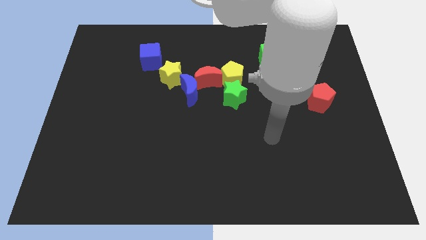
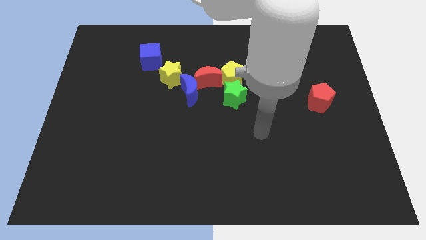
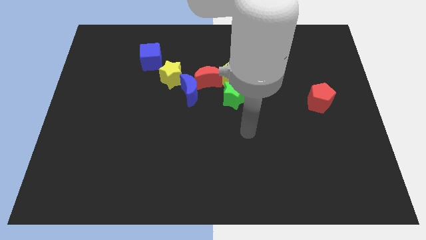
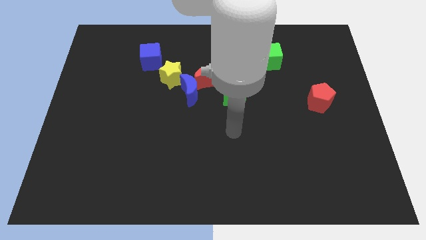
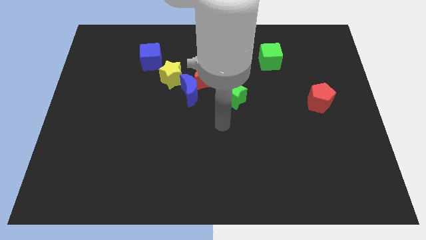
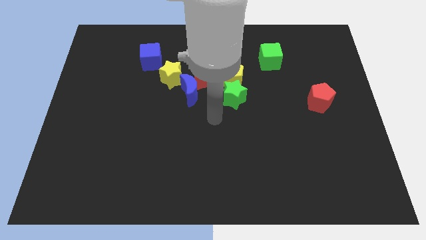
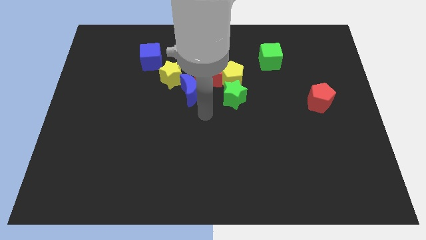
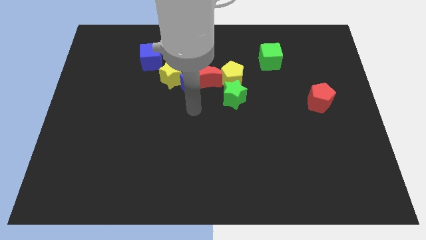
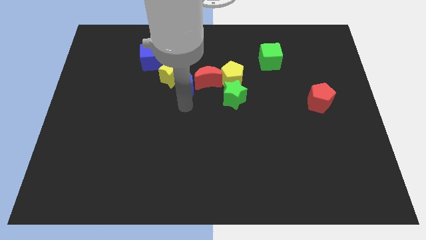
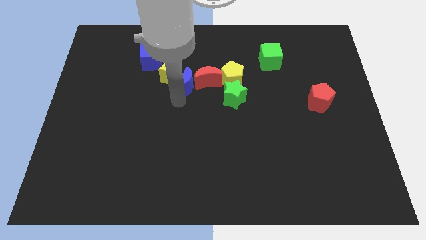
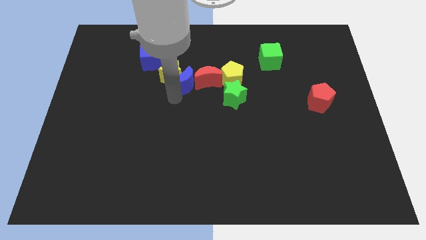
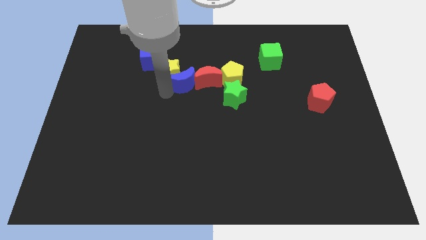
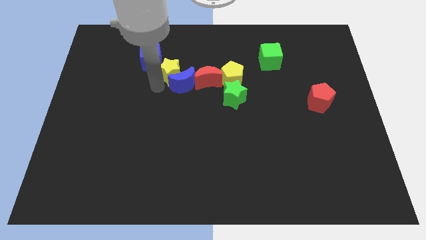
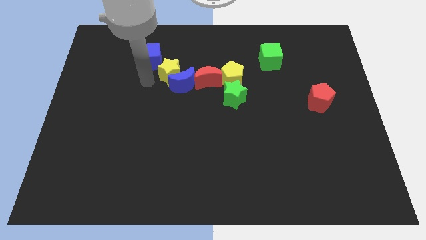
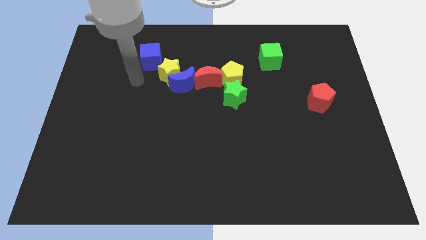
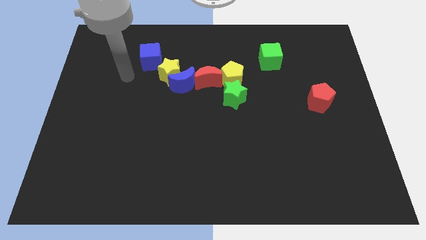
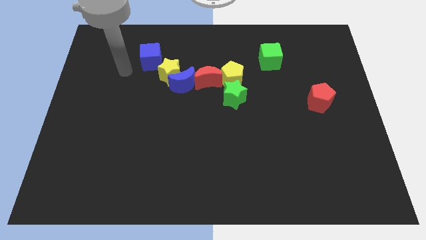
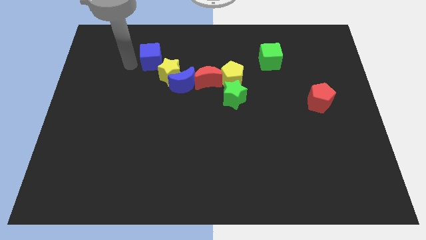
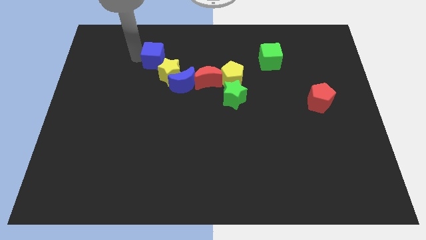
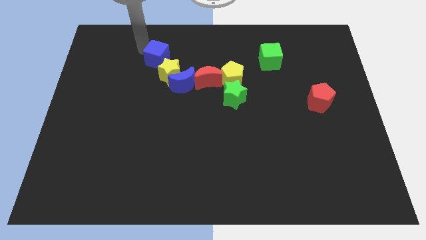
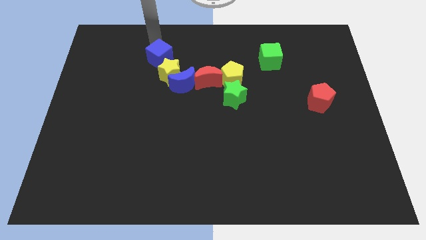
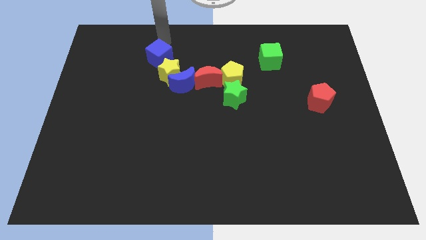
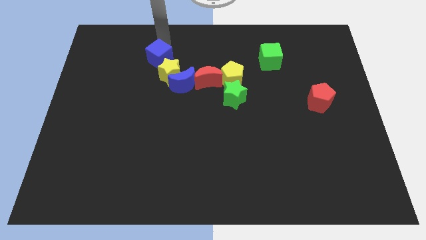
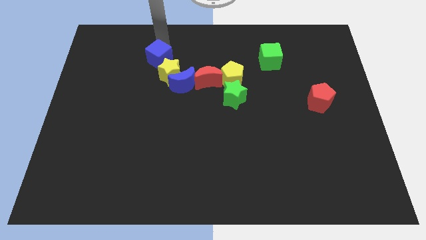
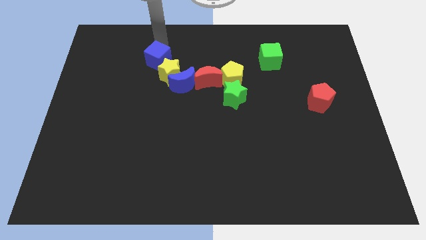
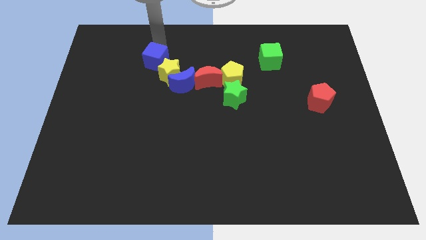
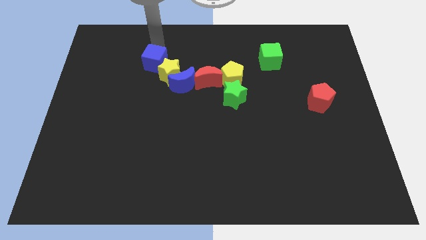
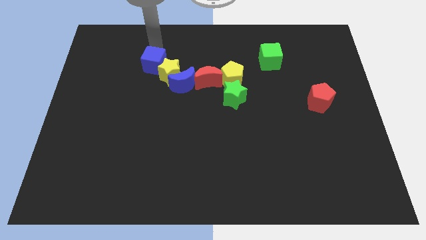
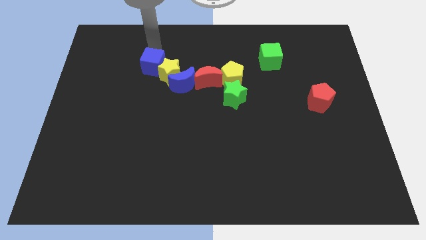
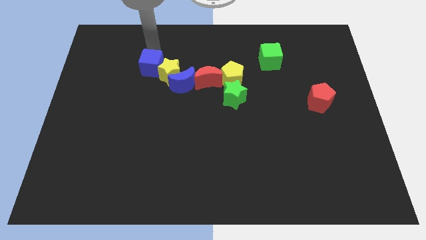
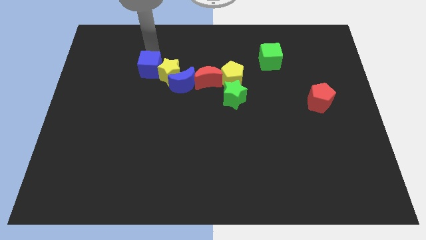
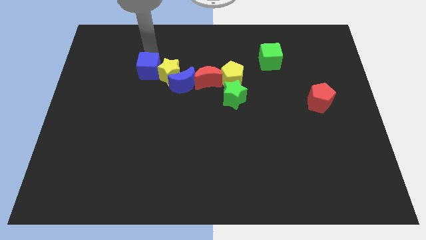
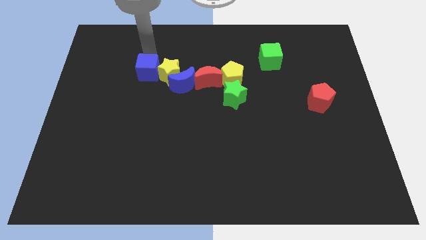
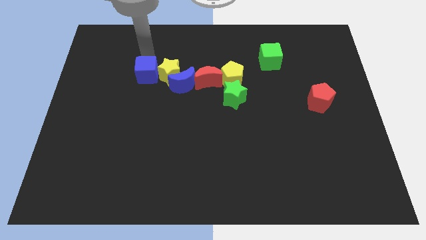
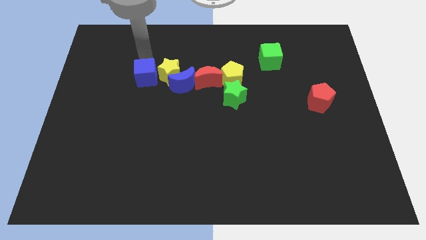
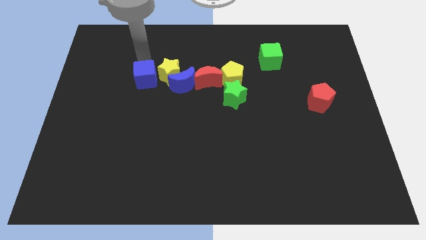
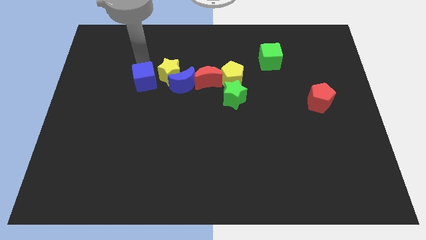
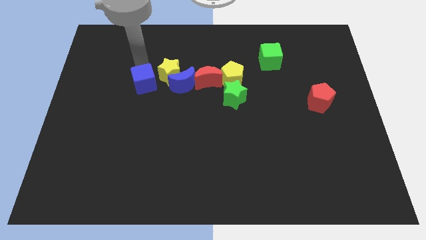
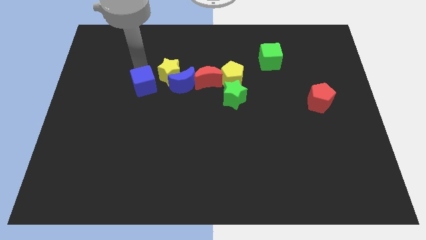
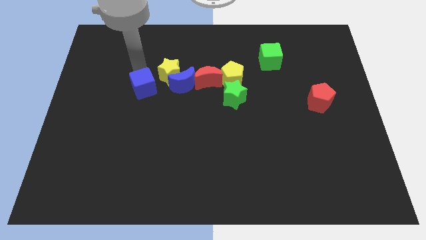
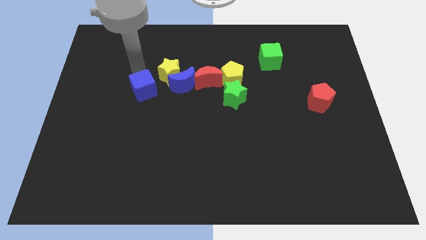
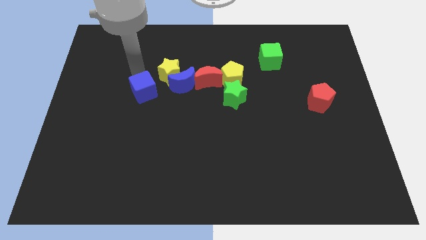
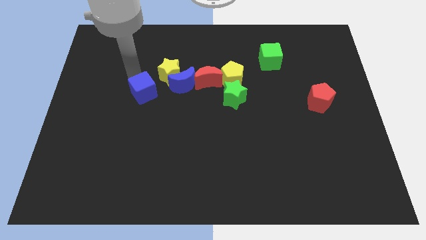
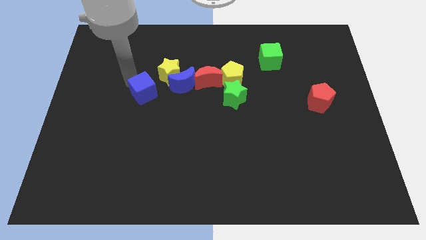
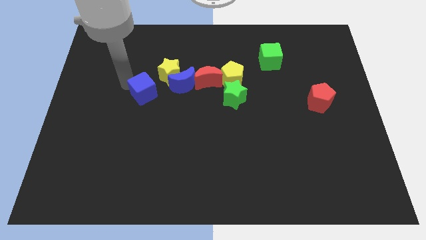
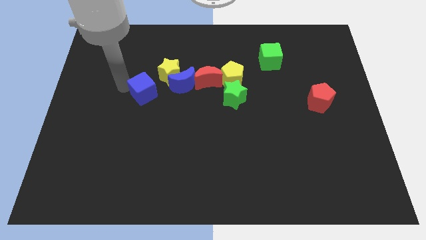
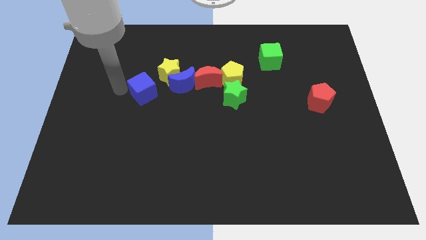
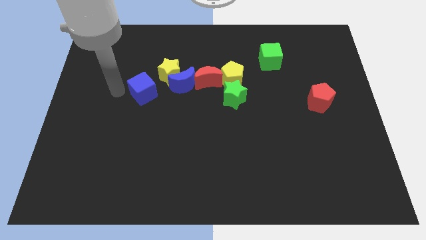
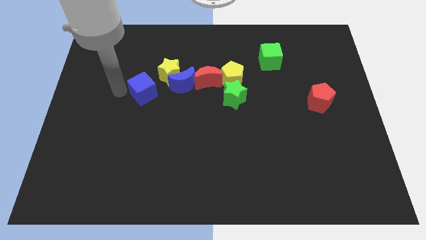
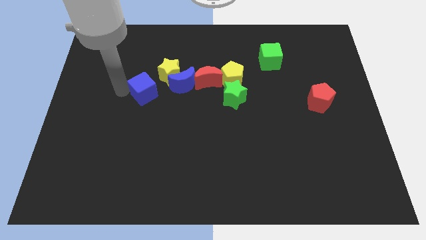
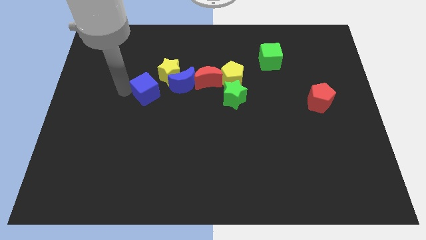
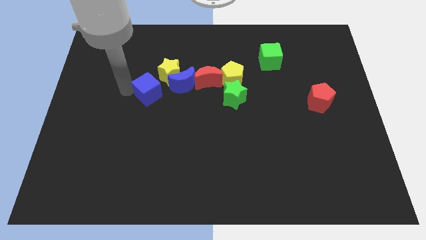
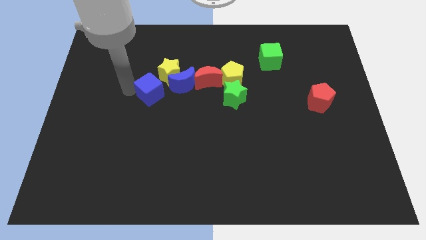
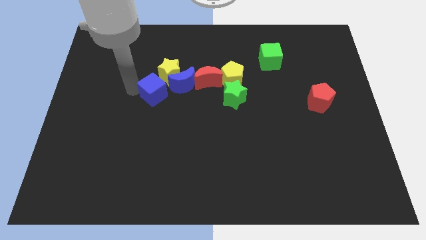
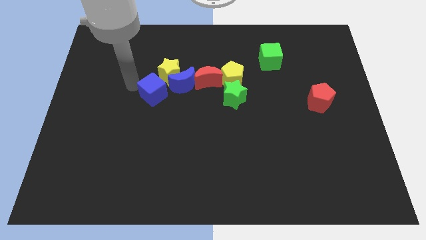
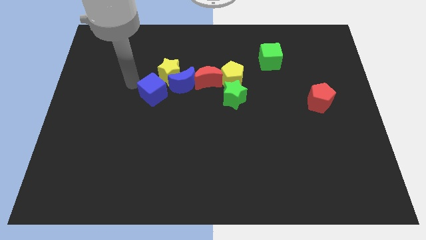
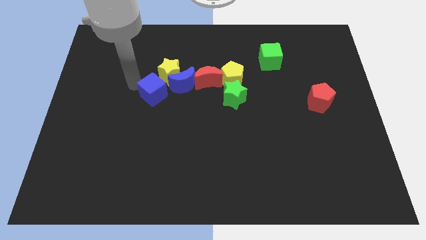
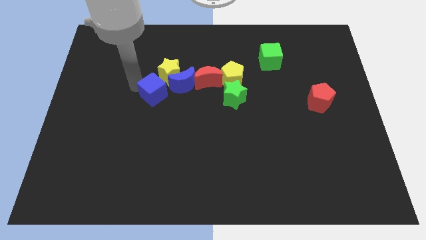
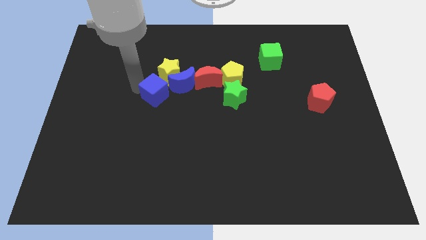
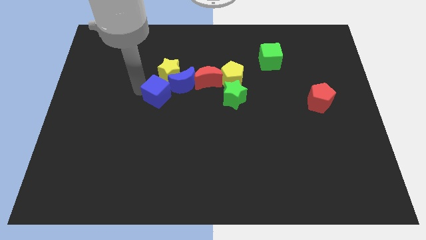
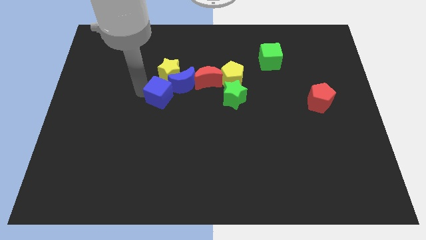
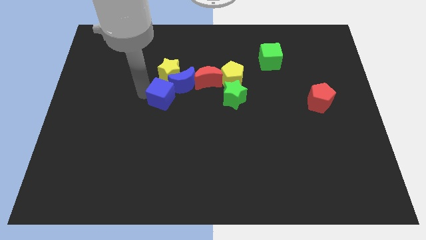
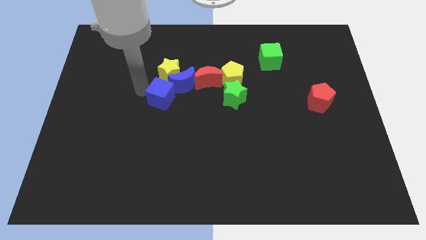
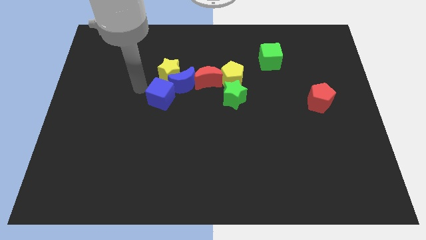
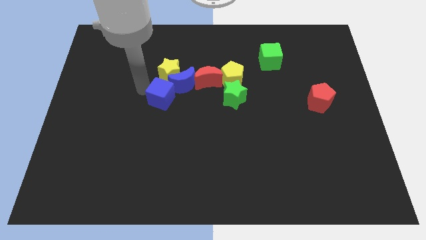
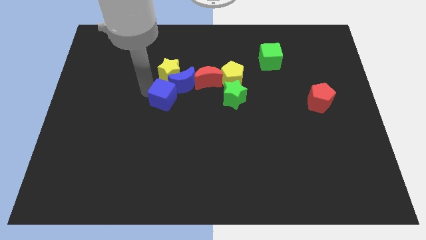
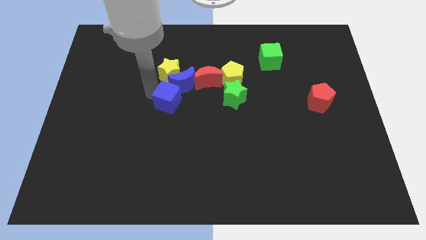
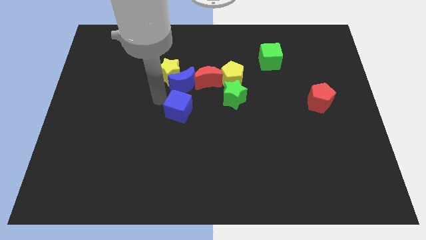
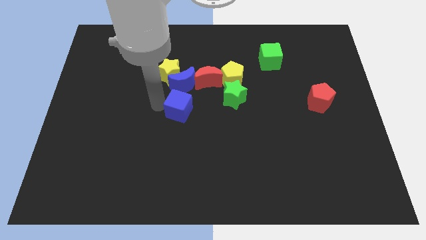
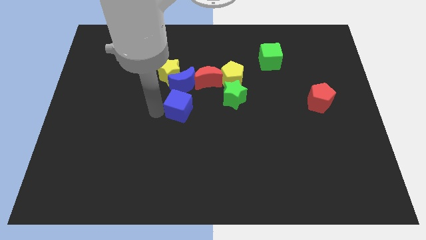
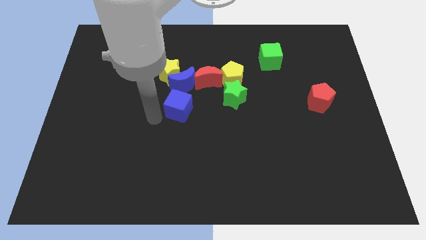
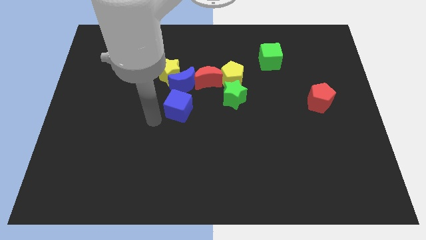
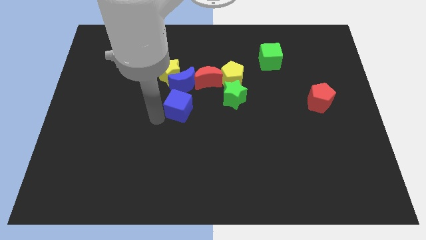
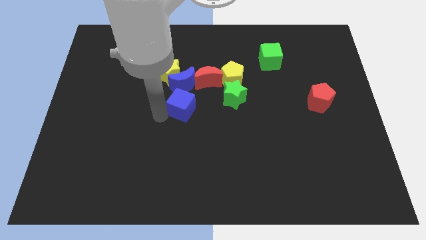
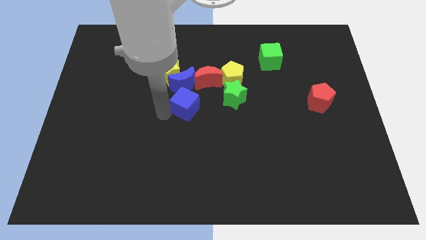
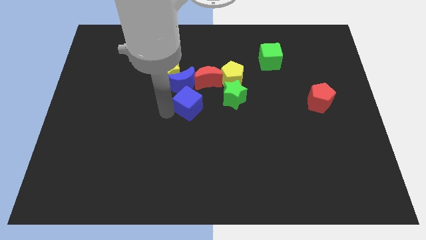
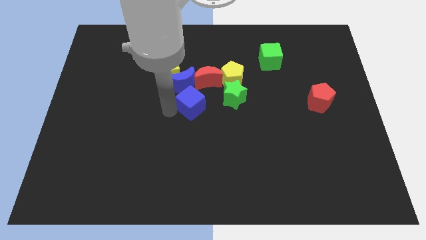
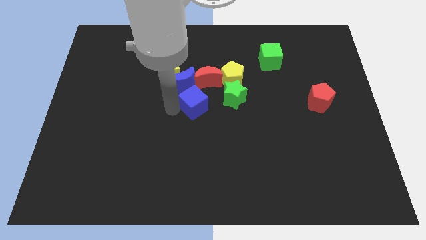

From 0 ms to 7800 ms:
push the blue cube to the bottom left of the yellow pentagon
